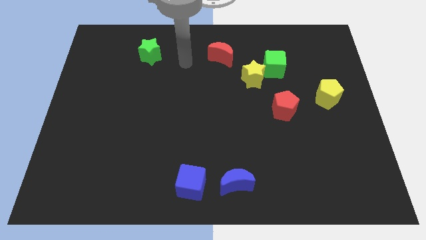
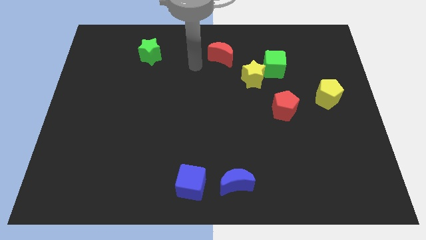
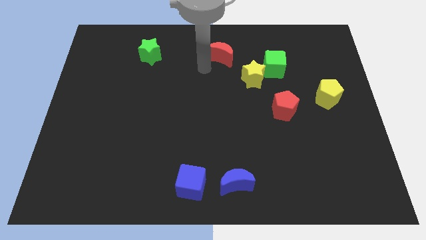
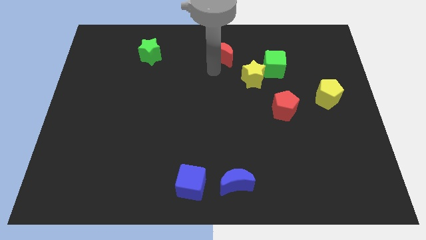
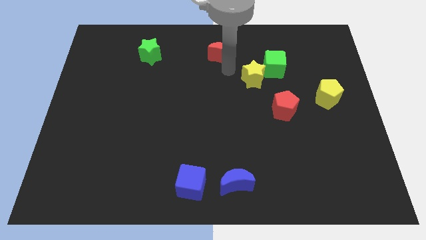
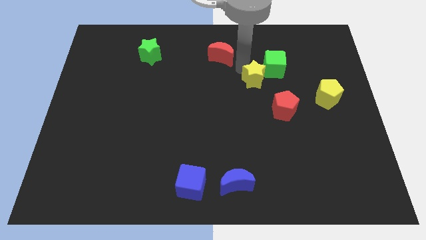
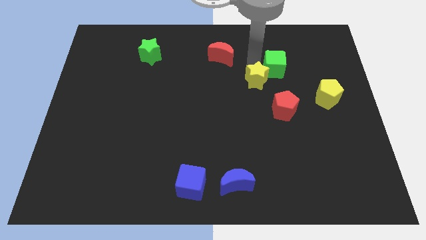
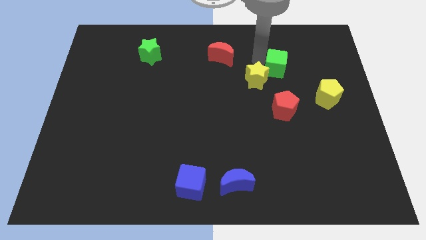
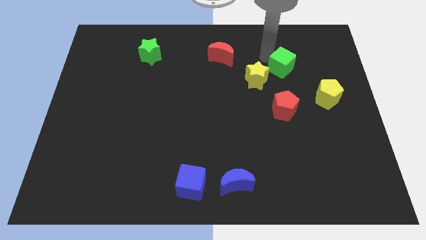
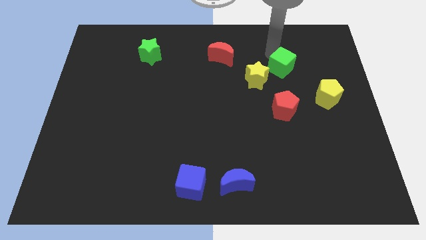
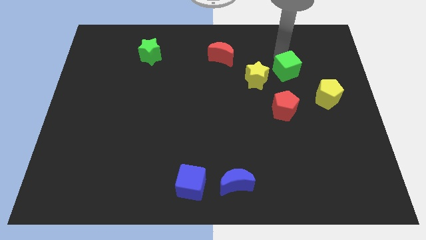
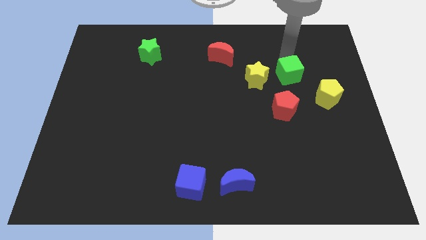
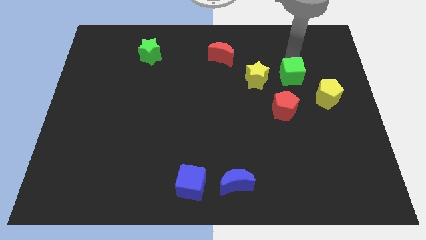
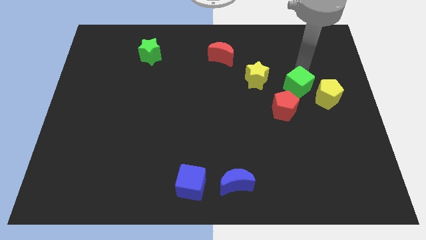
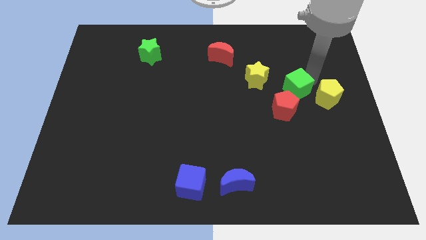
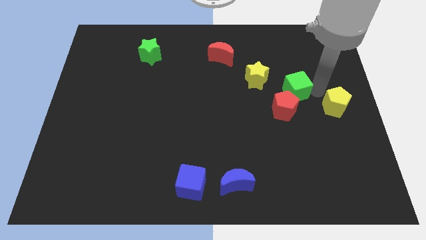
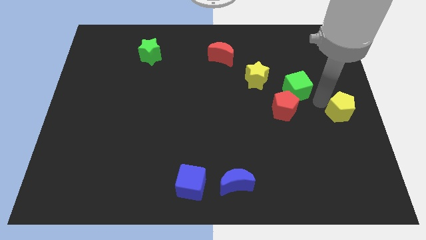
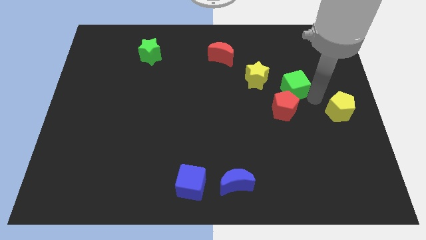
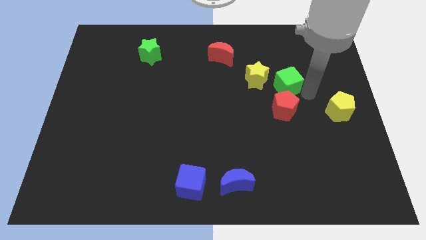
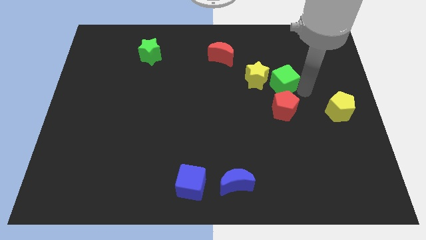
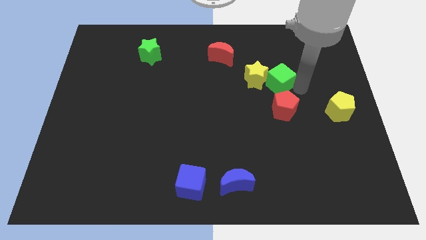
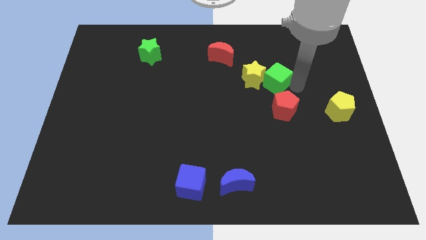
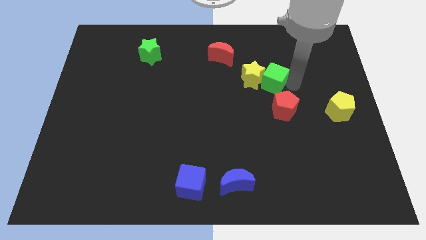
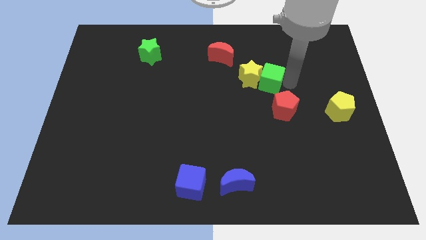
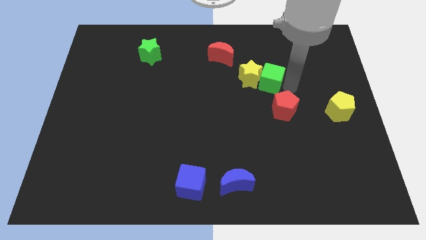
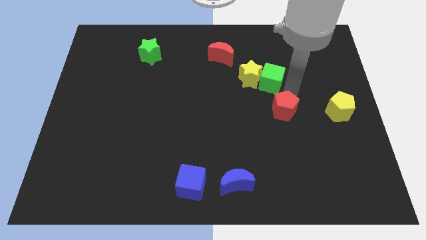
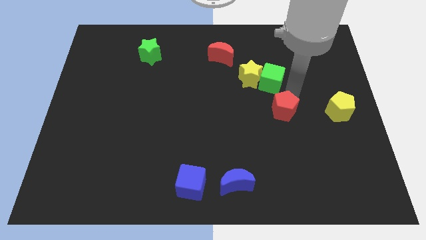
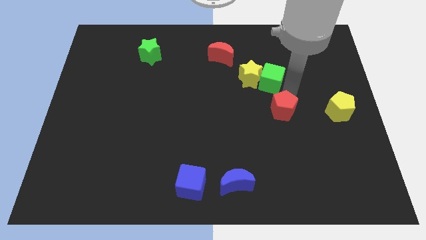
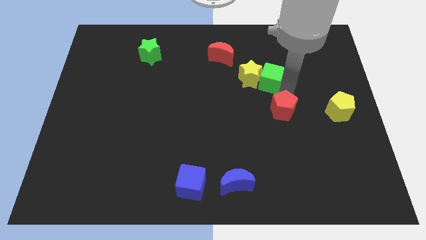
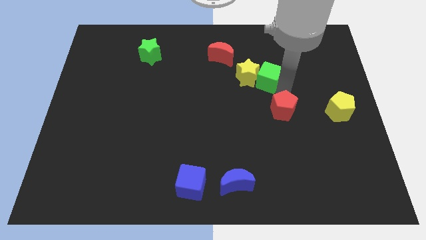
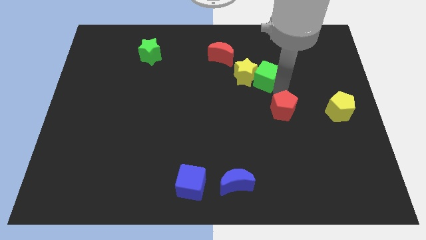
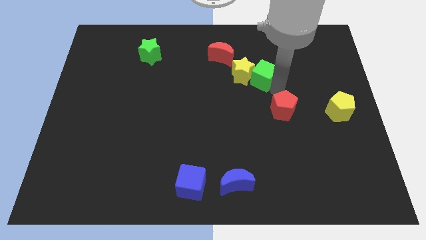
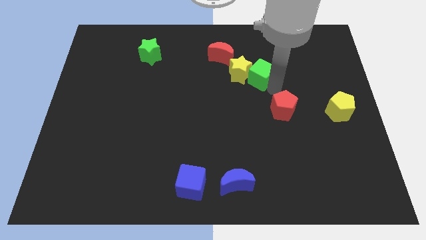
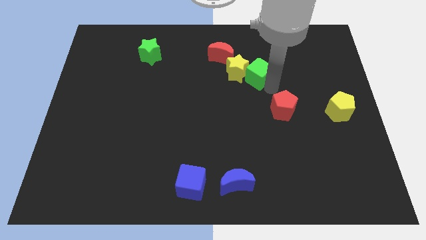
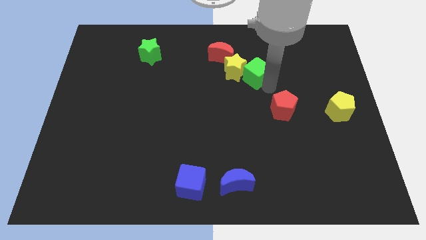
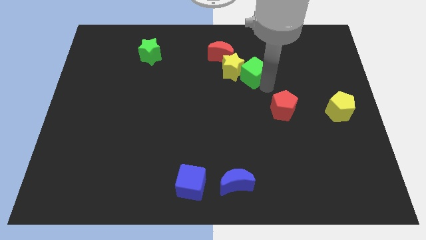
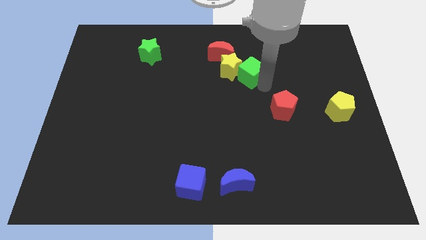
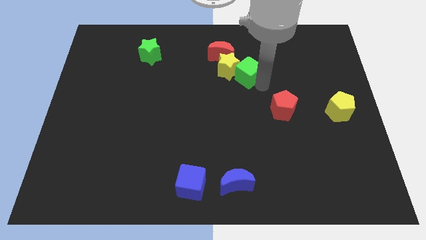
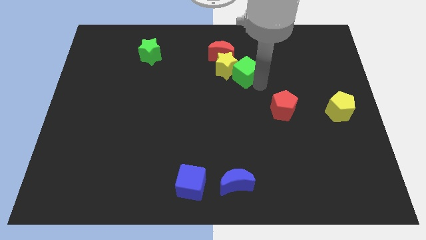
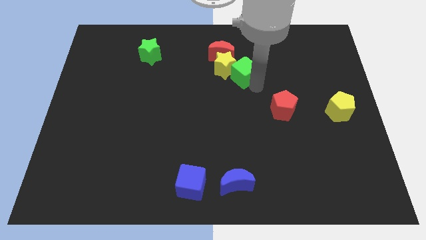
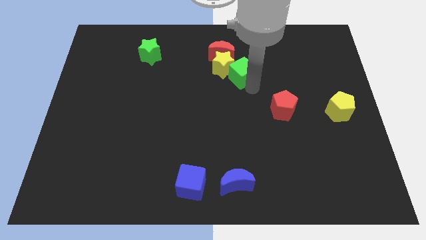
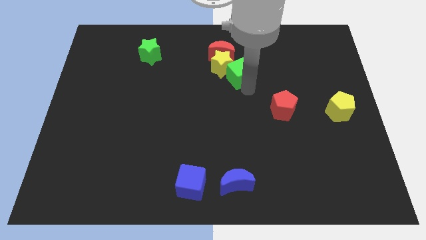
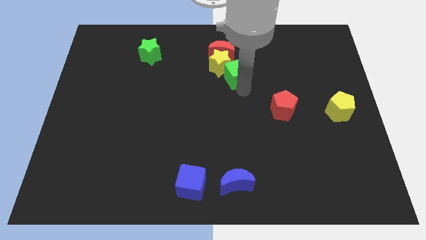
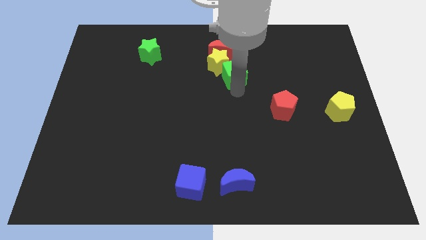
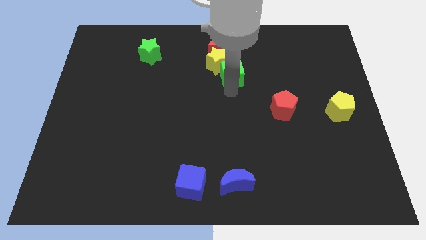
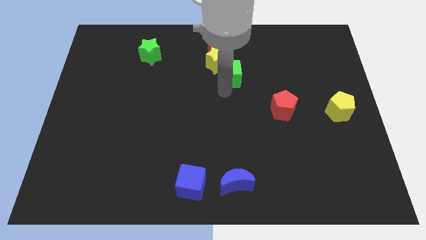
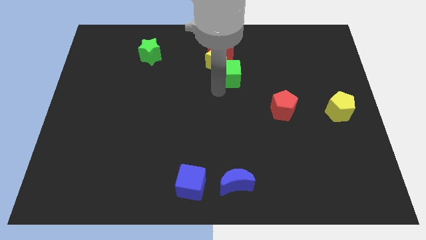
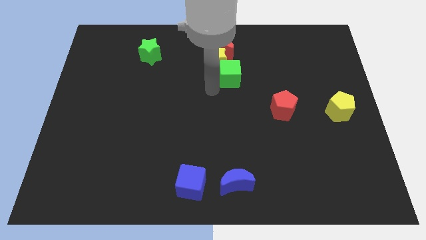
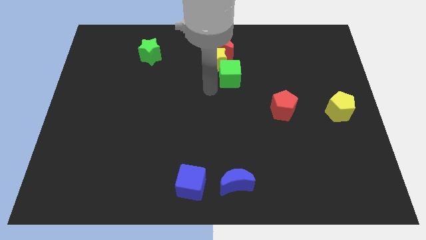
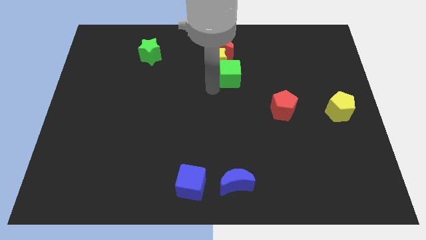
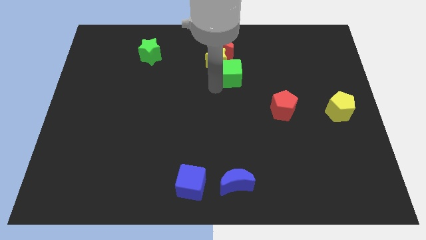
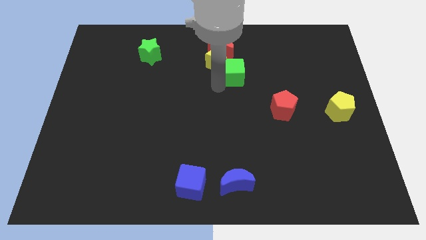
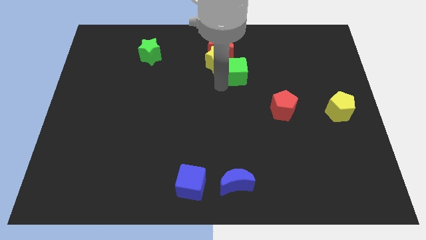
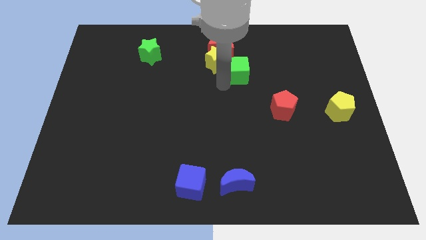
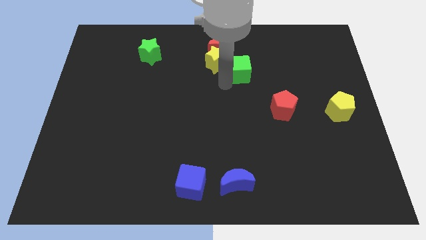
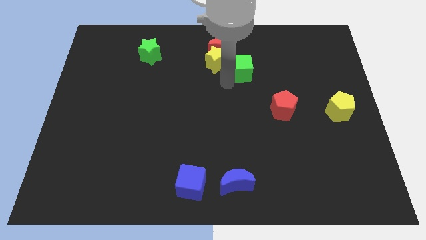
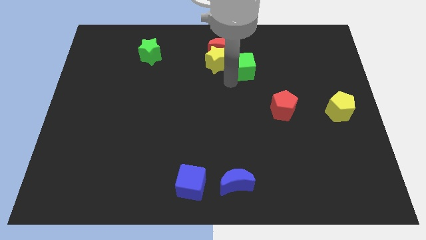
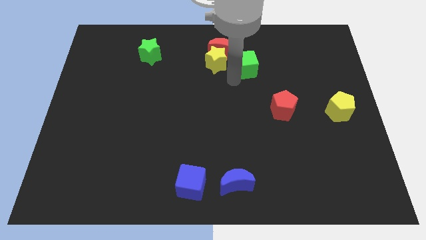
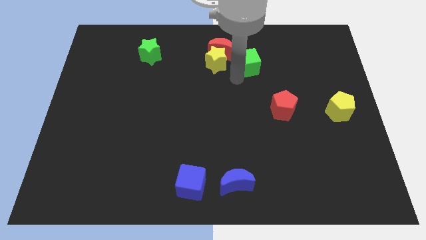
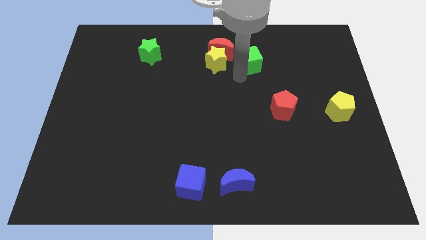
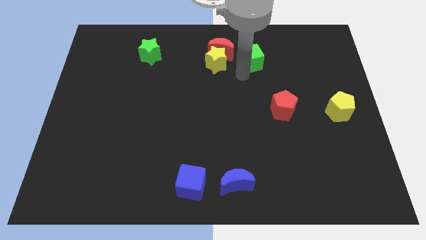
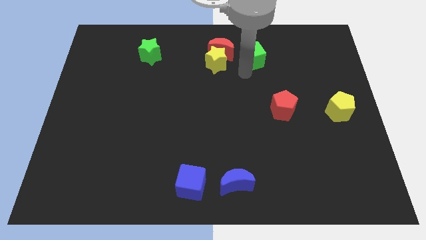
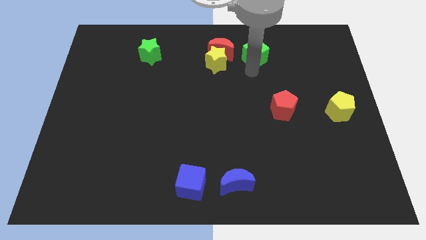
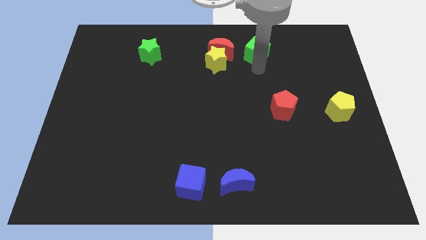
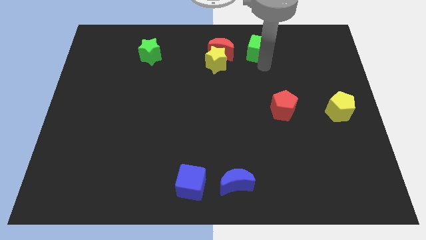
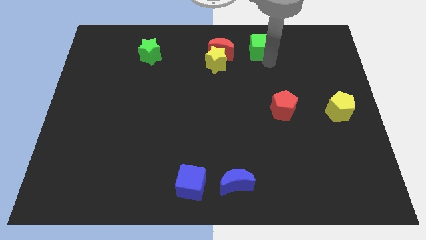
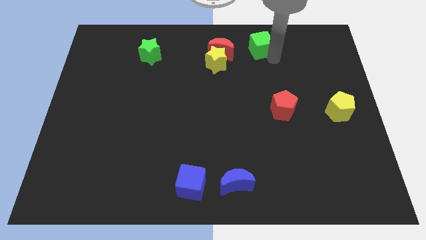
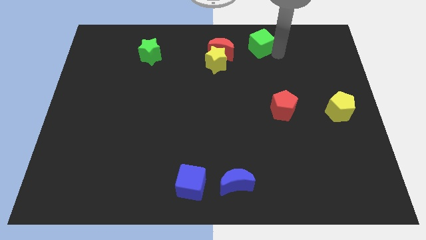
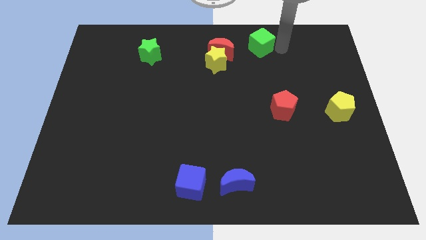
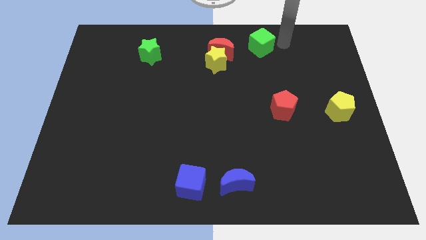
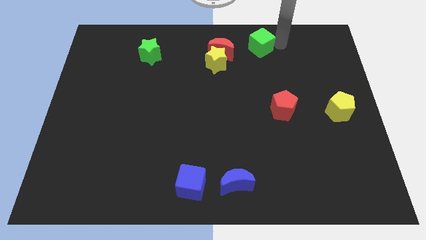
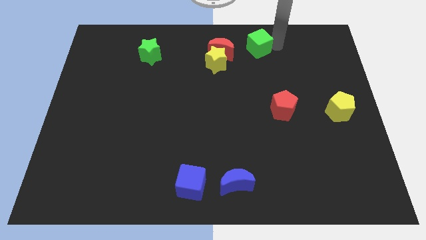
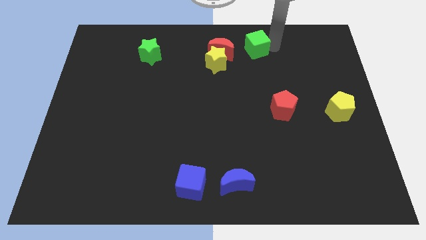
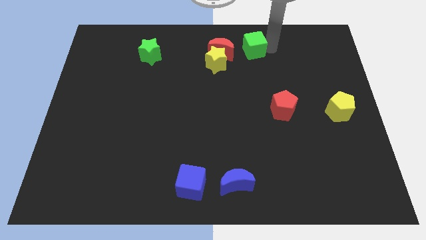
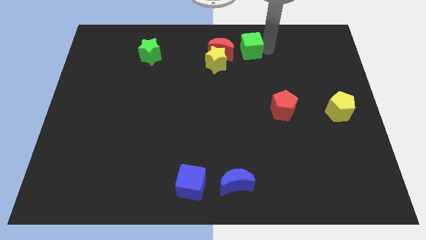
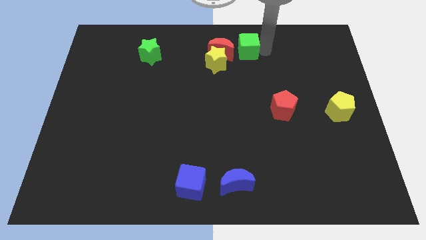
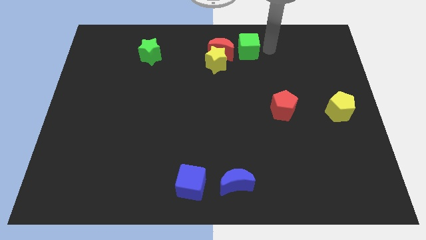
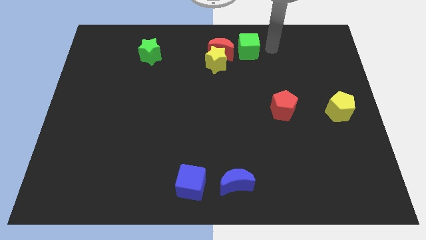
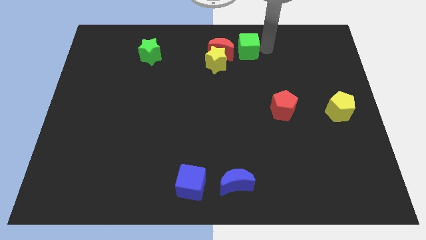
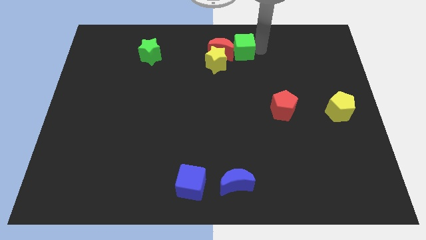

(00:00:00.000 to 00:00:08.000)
move the green cube close to the red moon

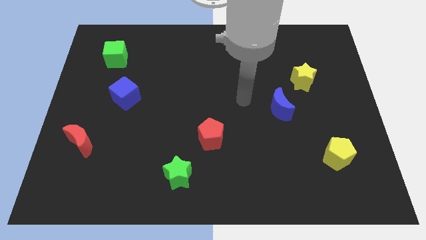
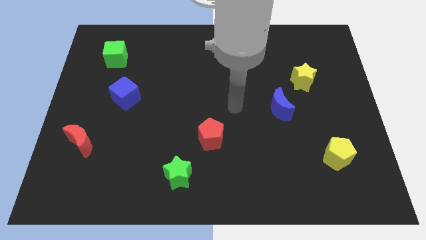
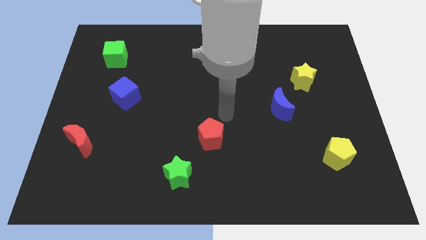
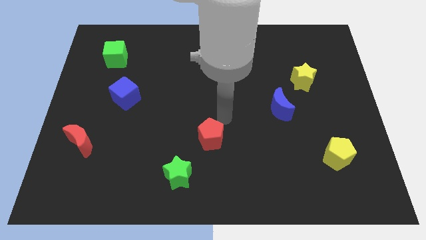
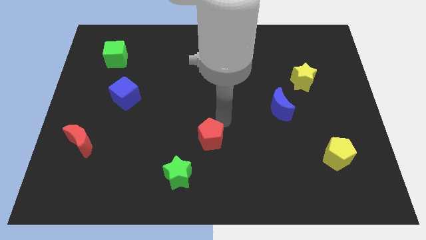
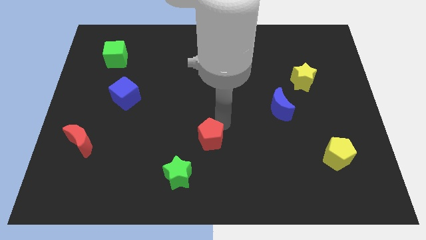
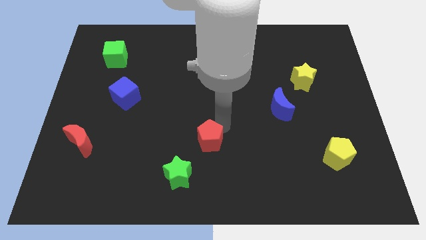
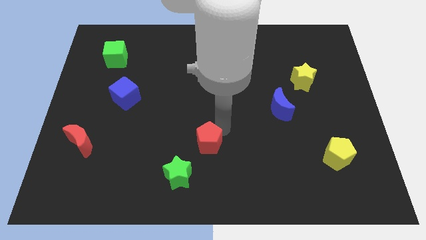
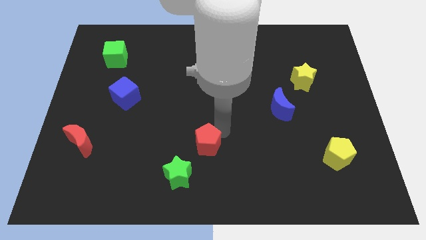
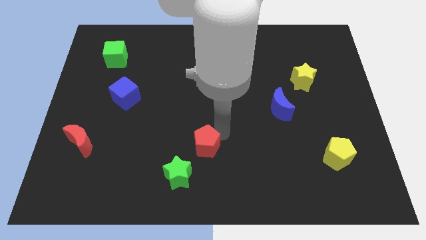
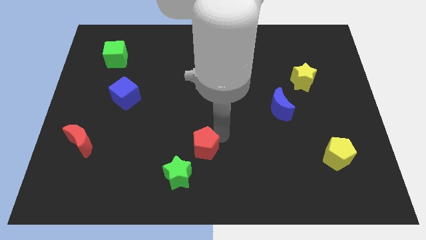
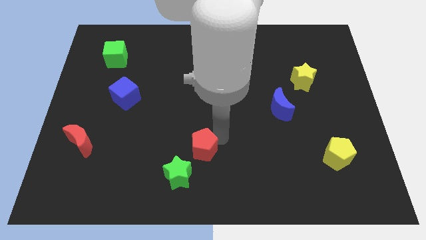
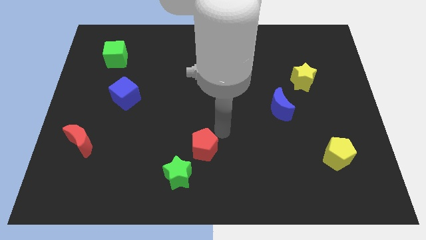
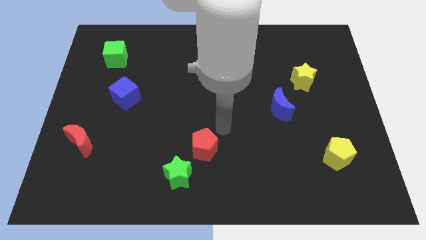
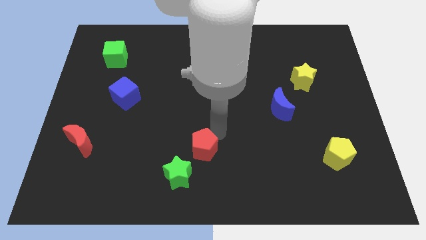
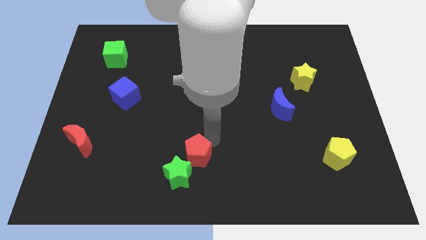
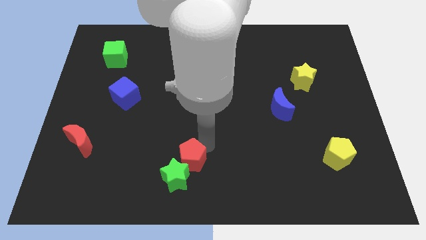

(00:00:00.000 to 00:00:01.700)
slide the red pentagon towards the green star
